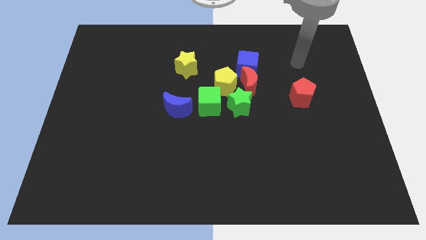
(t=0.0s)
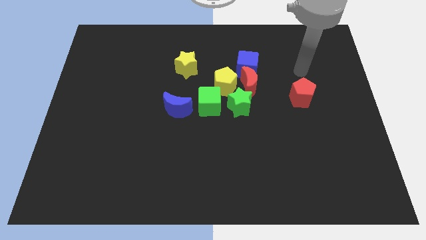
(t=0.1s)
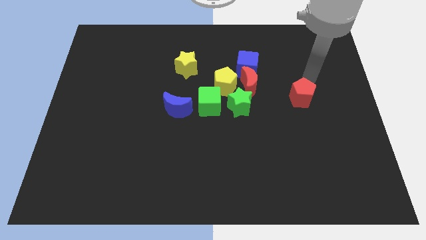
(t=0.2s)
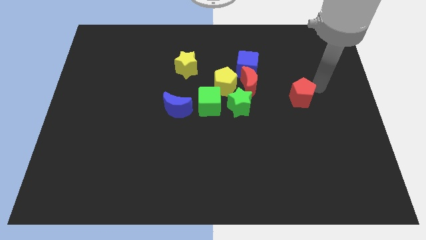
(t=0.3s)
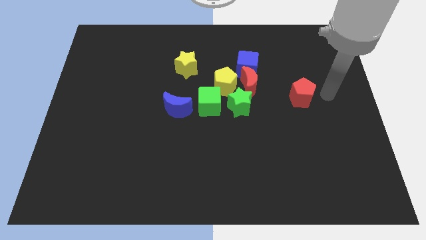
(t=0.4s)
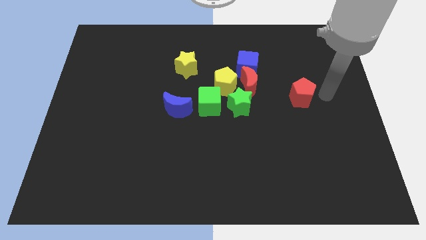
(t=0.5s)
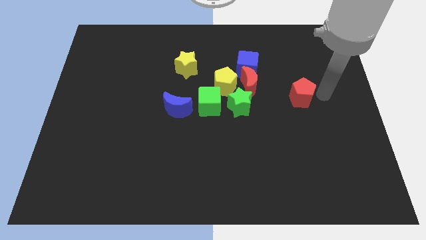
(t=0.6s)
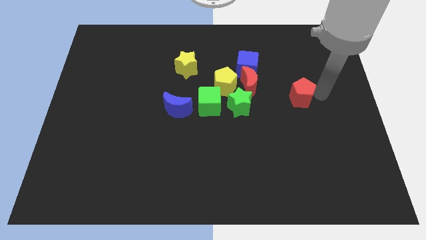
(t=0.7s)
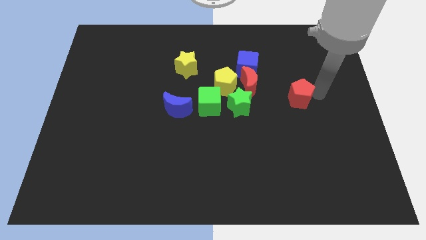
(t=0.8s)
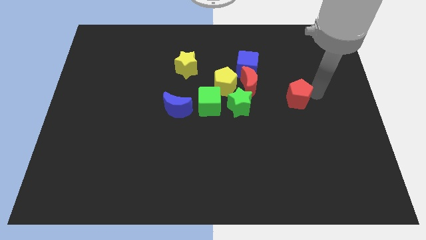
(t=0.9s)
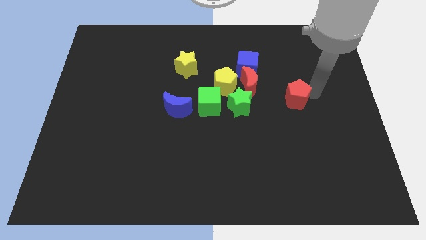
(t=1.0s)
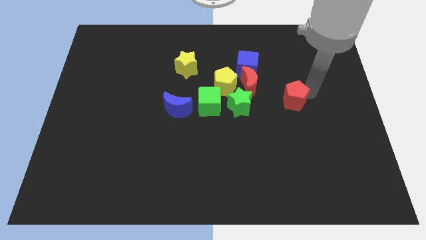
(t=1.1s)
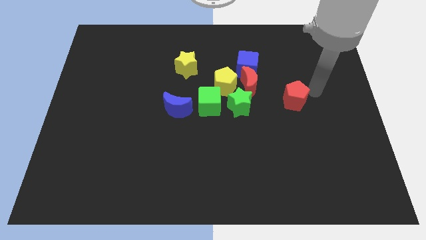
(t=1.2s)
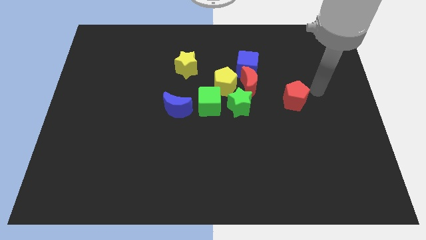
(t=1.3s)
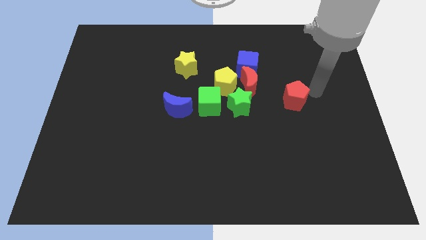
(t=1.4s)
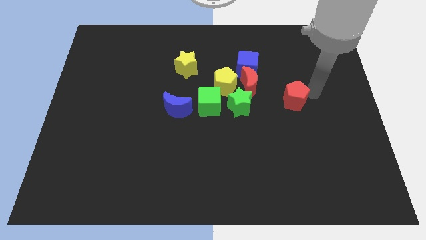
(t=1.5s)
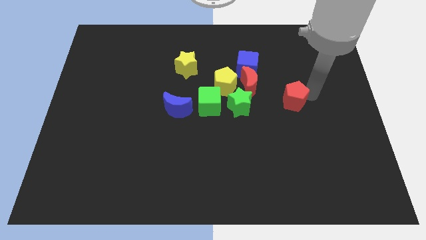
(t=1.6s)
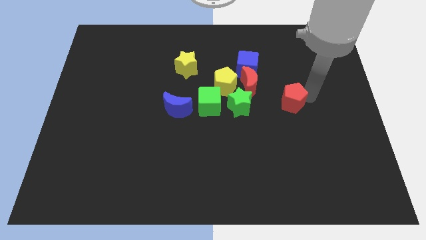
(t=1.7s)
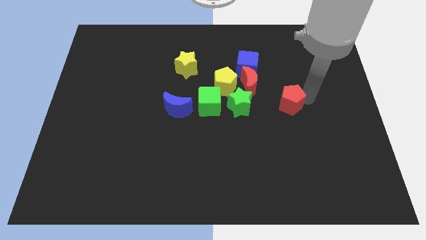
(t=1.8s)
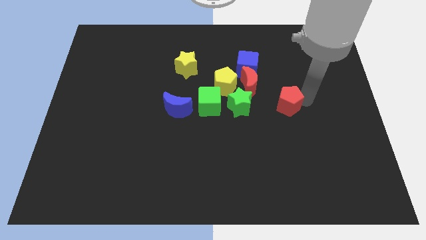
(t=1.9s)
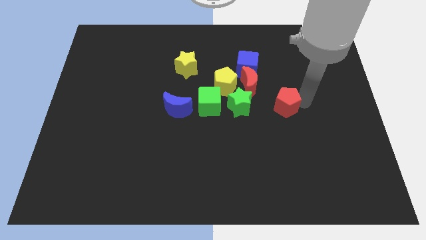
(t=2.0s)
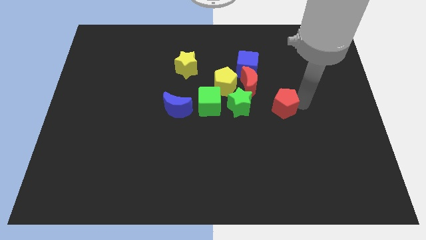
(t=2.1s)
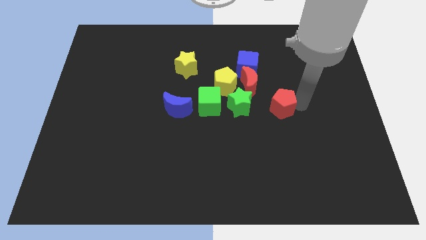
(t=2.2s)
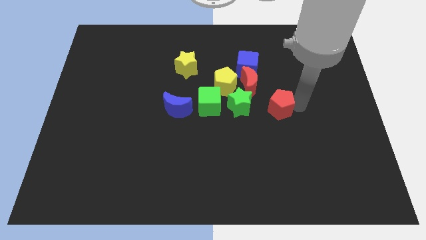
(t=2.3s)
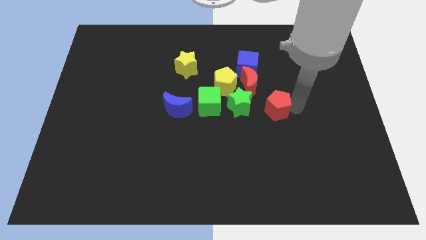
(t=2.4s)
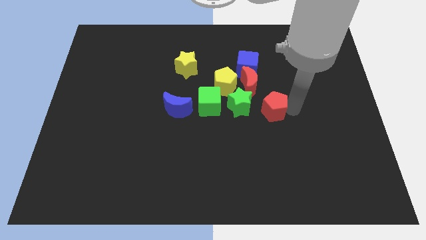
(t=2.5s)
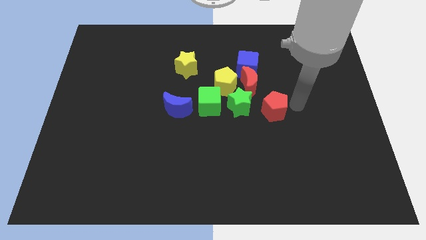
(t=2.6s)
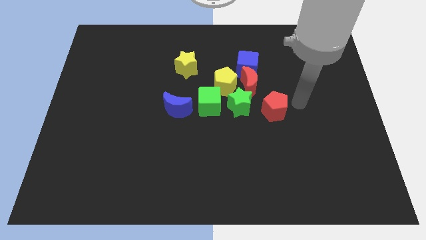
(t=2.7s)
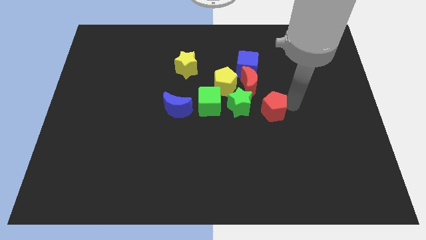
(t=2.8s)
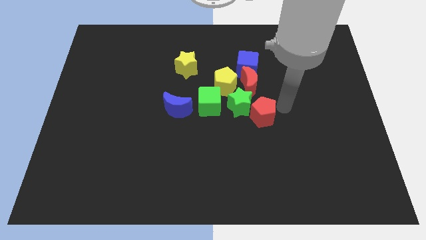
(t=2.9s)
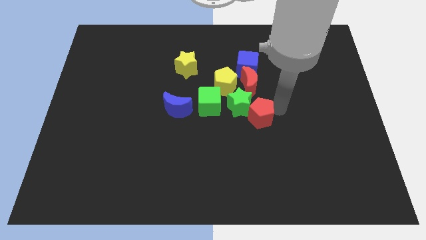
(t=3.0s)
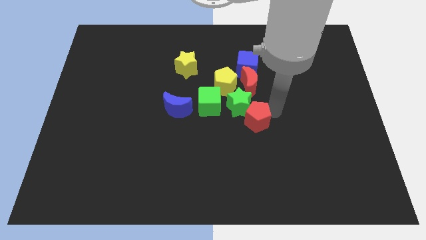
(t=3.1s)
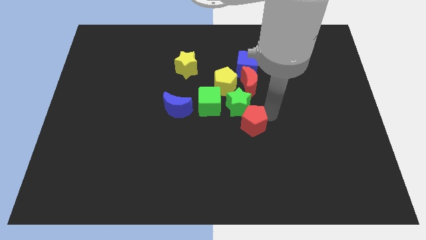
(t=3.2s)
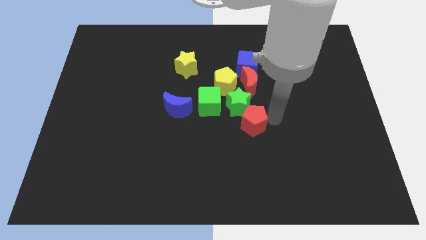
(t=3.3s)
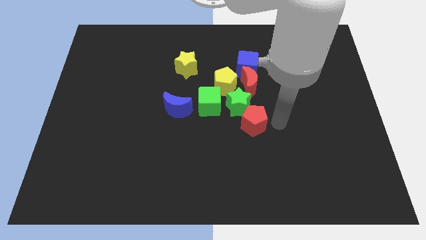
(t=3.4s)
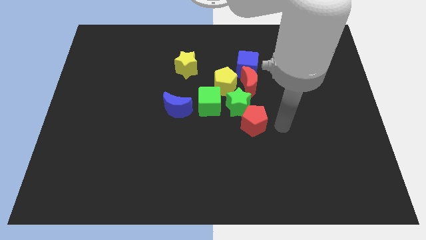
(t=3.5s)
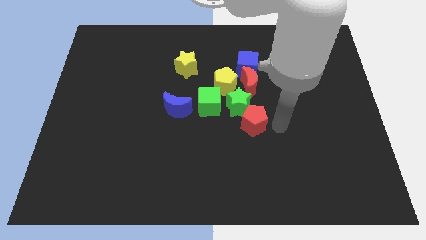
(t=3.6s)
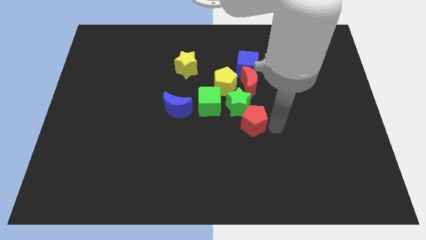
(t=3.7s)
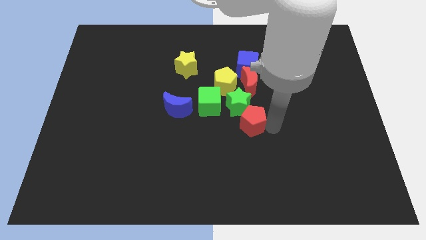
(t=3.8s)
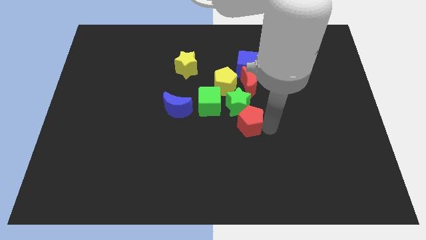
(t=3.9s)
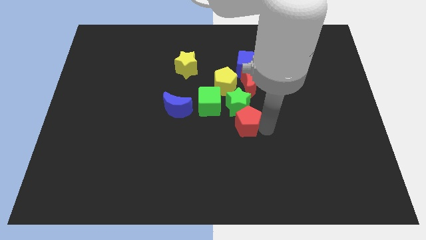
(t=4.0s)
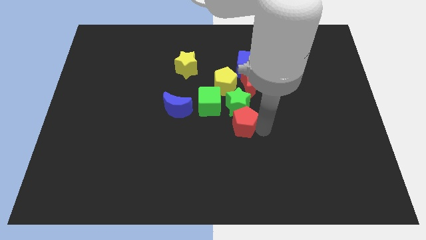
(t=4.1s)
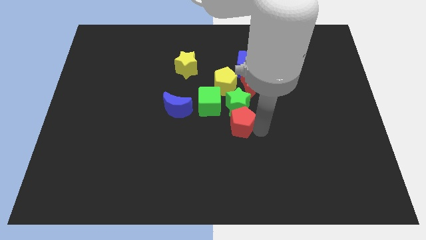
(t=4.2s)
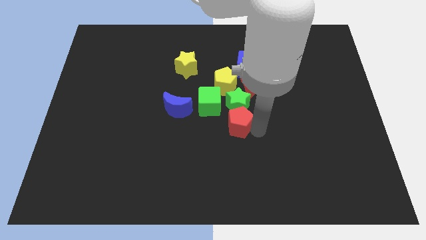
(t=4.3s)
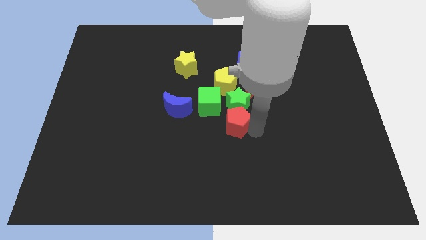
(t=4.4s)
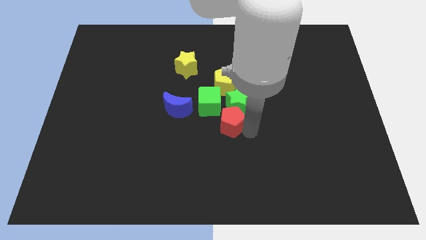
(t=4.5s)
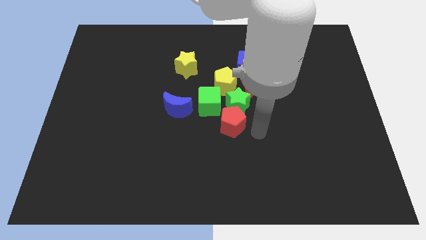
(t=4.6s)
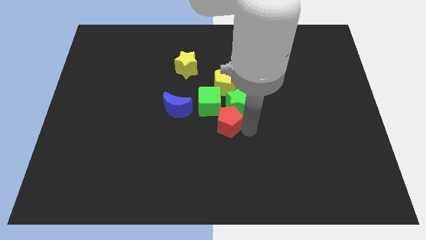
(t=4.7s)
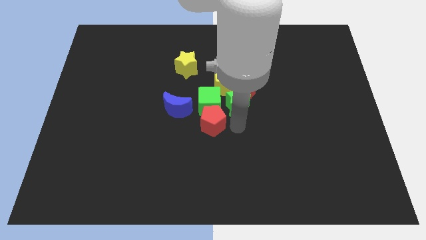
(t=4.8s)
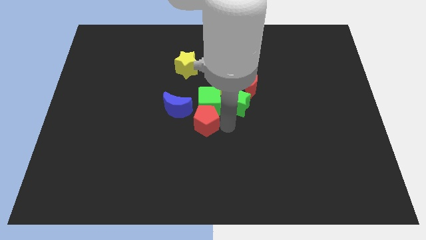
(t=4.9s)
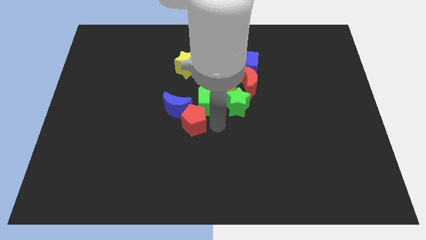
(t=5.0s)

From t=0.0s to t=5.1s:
push the red pentagon to the blue moon

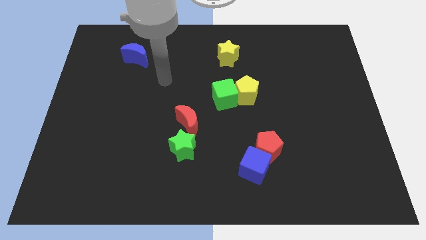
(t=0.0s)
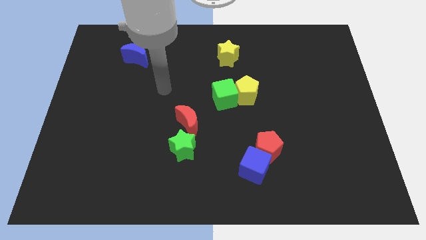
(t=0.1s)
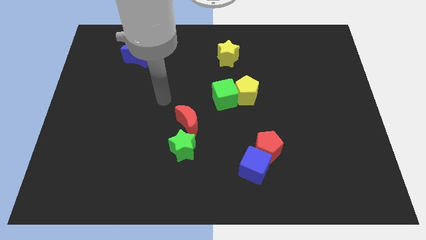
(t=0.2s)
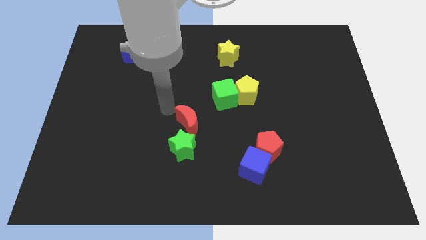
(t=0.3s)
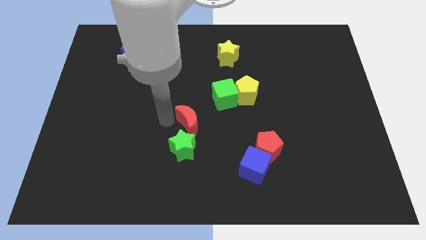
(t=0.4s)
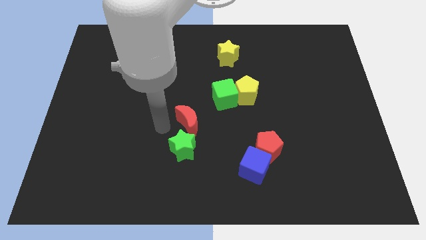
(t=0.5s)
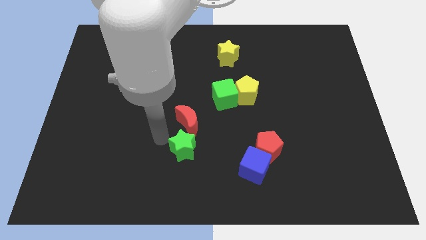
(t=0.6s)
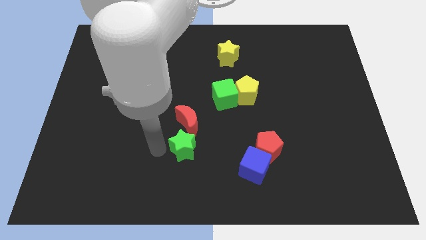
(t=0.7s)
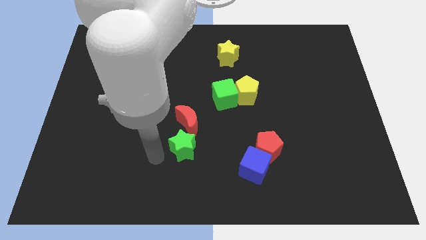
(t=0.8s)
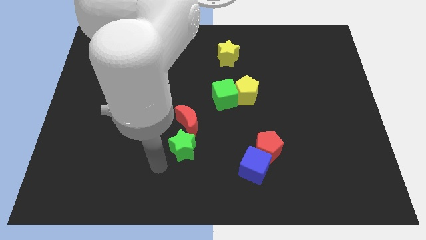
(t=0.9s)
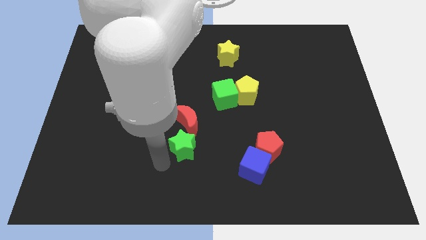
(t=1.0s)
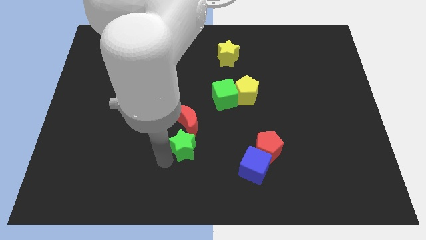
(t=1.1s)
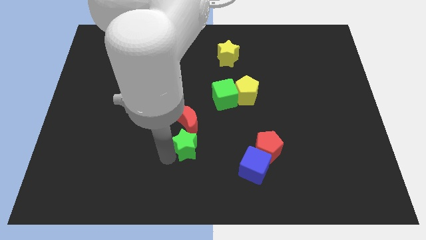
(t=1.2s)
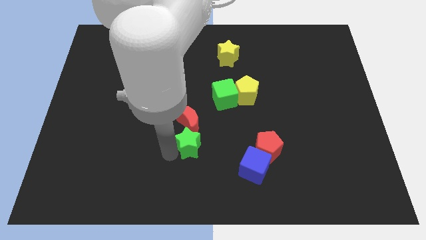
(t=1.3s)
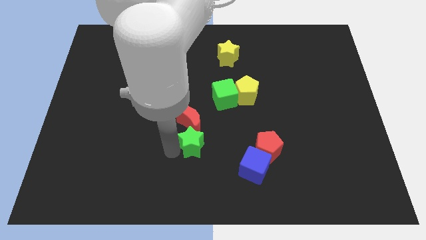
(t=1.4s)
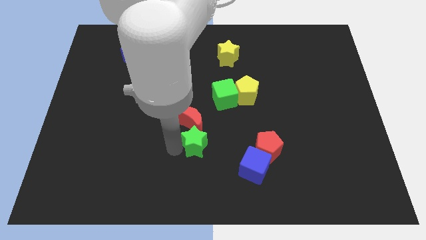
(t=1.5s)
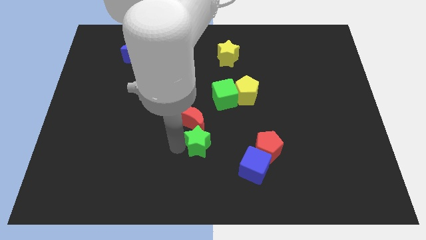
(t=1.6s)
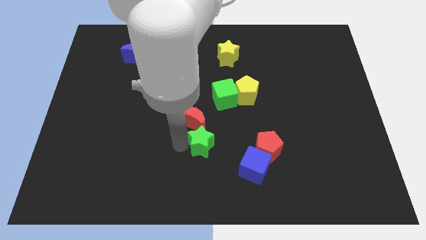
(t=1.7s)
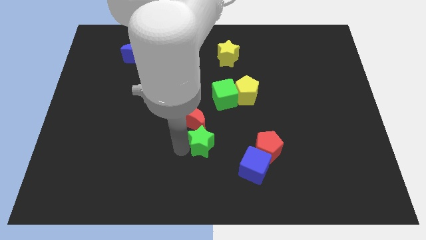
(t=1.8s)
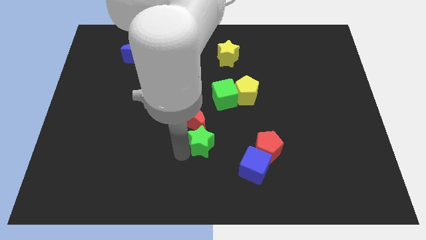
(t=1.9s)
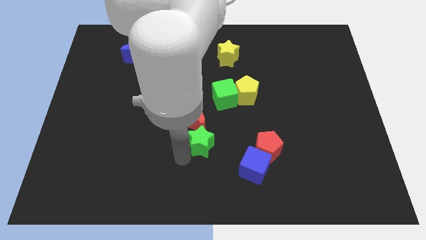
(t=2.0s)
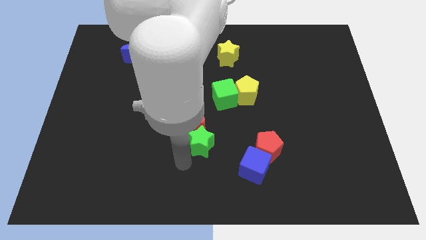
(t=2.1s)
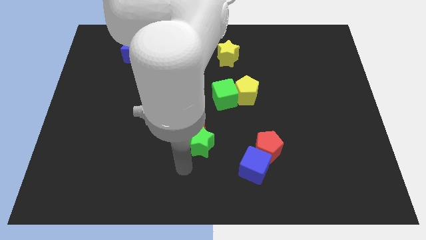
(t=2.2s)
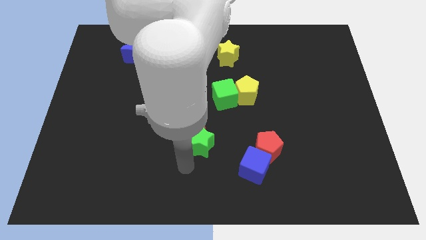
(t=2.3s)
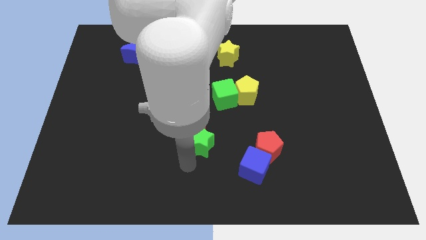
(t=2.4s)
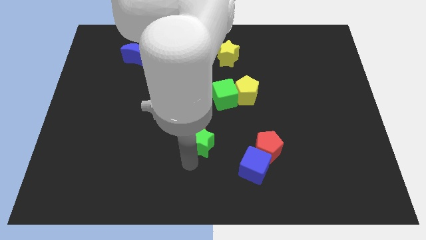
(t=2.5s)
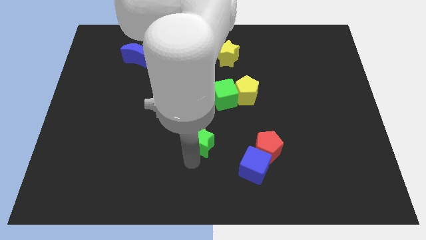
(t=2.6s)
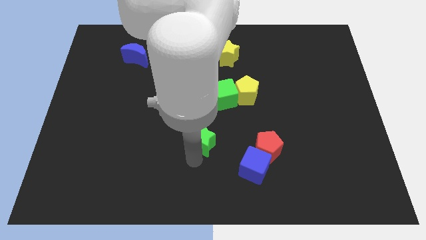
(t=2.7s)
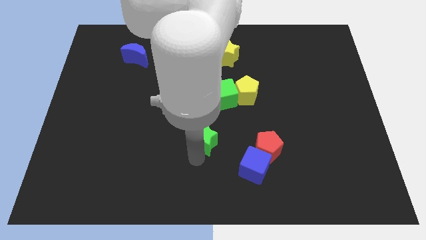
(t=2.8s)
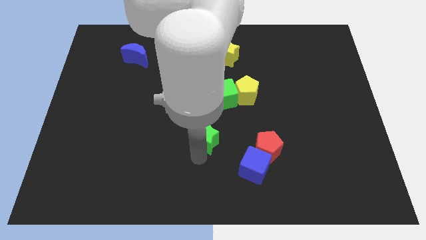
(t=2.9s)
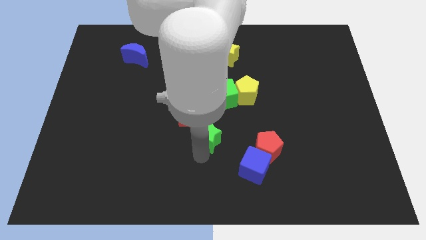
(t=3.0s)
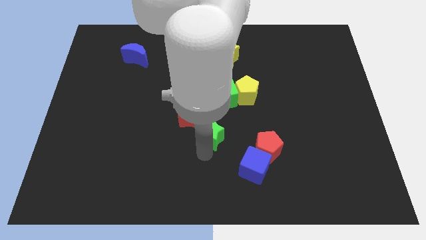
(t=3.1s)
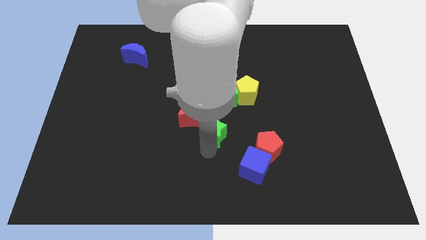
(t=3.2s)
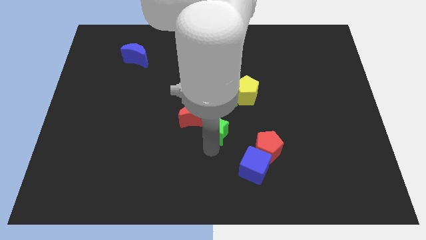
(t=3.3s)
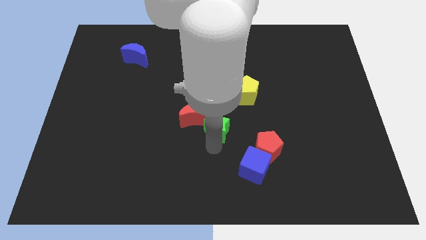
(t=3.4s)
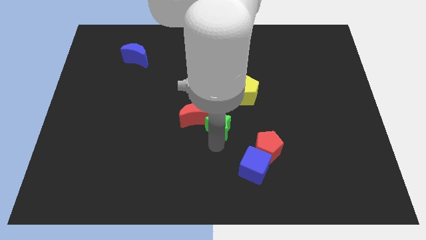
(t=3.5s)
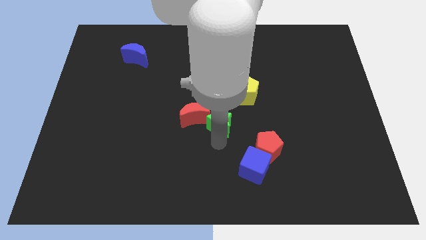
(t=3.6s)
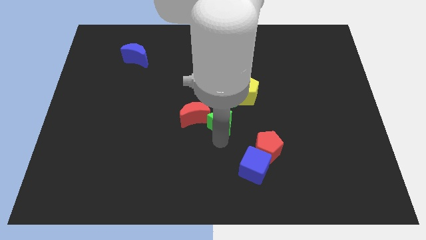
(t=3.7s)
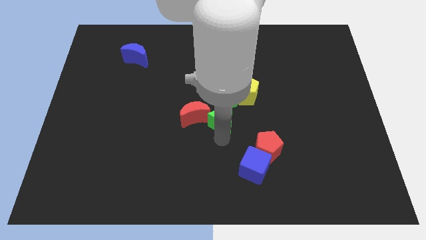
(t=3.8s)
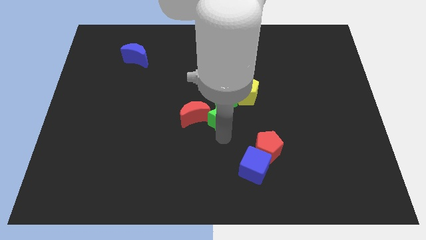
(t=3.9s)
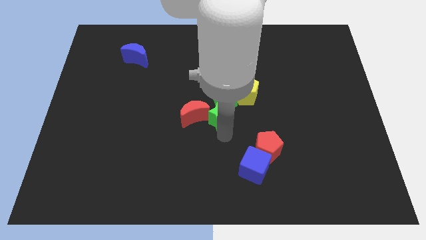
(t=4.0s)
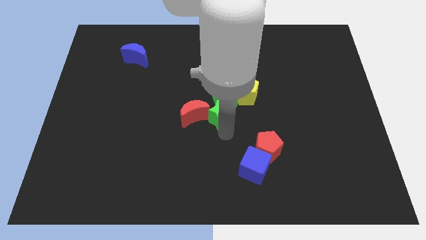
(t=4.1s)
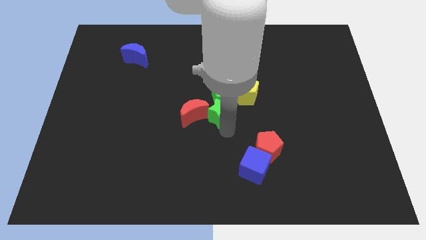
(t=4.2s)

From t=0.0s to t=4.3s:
slide the green star close to the green cube
